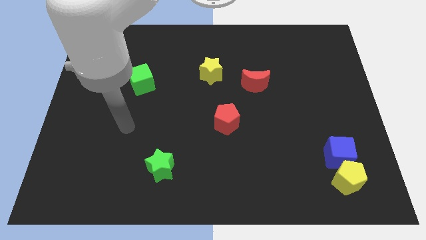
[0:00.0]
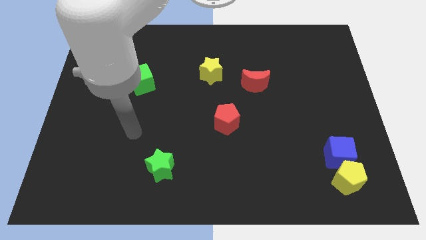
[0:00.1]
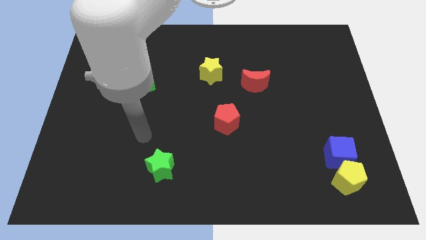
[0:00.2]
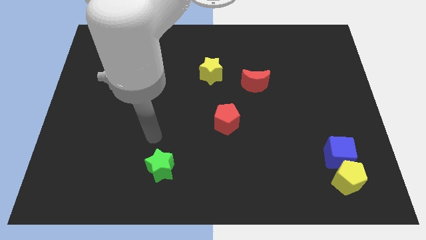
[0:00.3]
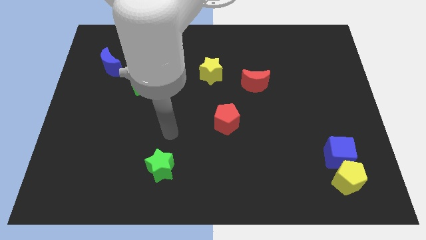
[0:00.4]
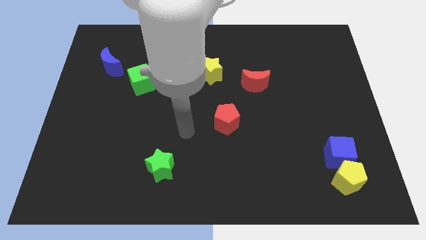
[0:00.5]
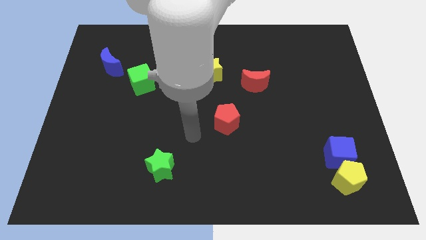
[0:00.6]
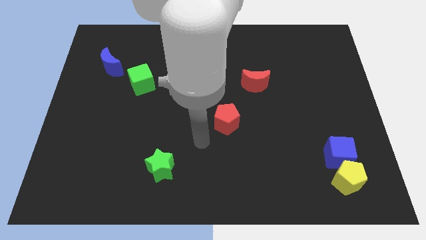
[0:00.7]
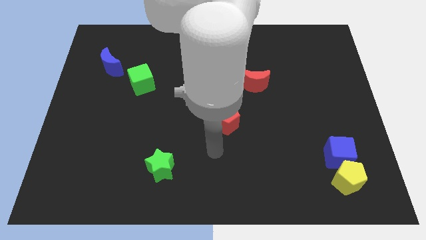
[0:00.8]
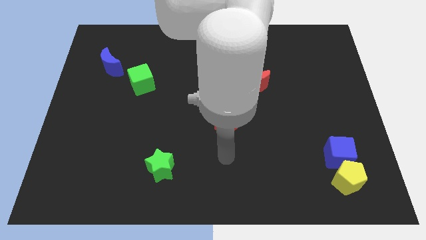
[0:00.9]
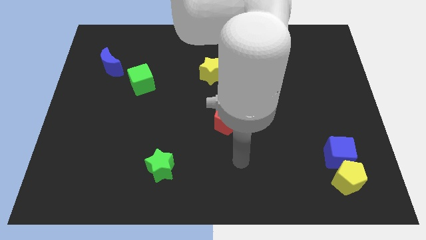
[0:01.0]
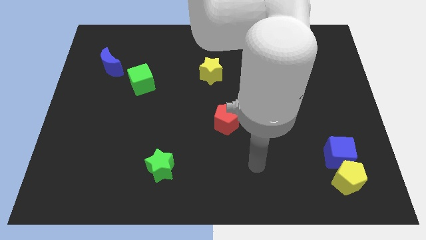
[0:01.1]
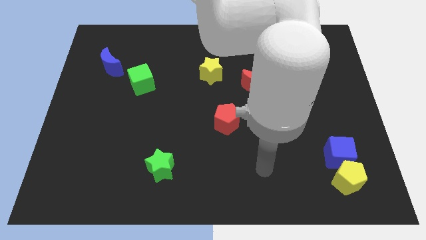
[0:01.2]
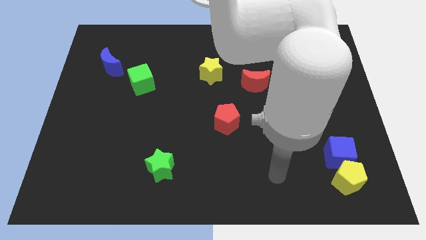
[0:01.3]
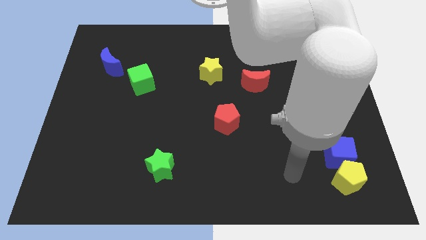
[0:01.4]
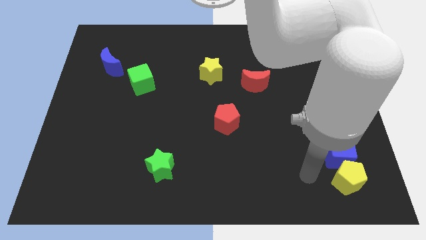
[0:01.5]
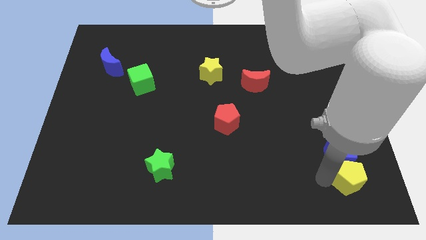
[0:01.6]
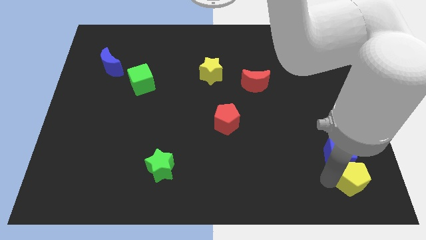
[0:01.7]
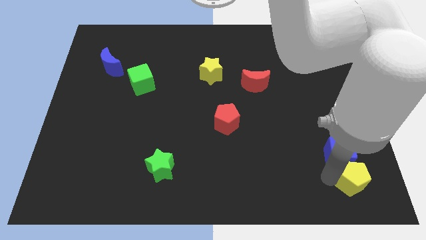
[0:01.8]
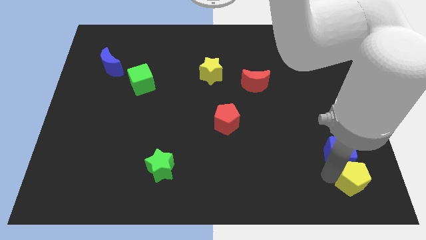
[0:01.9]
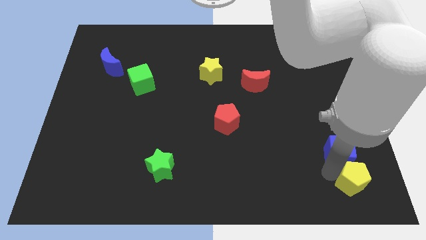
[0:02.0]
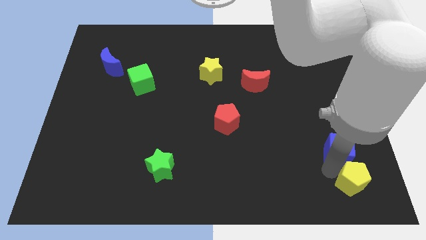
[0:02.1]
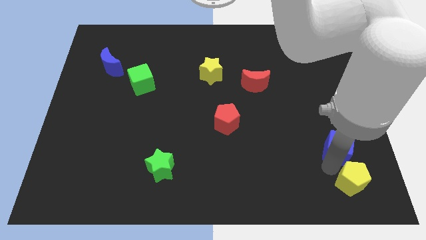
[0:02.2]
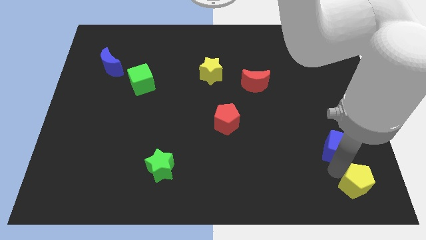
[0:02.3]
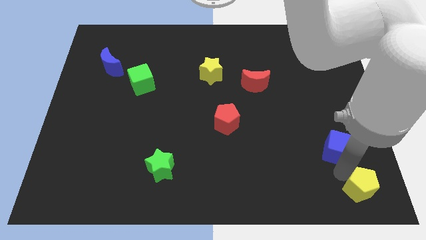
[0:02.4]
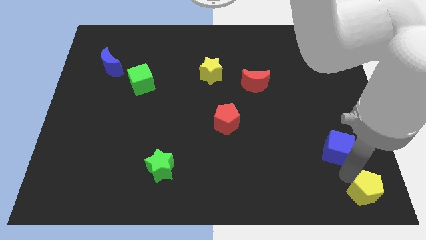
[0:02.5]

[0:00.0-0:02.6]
pull the blue cube apart from the yellow pentagon

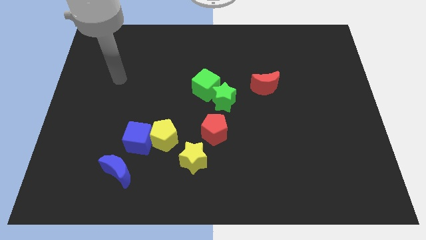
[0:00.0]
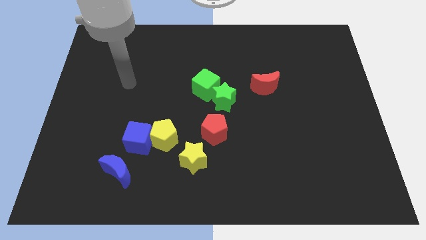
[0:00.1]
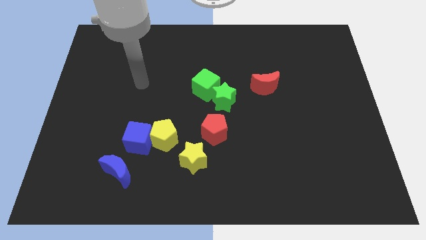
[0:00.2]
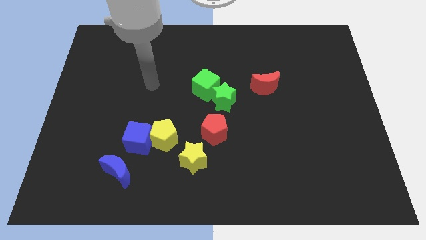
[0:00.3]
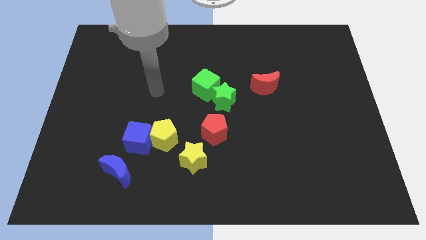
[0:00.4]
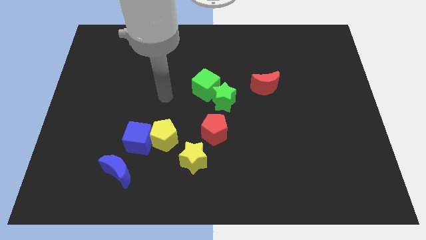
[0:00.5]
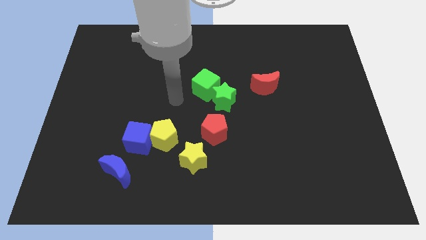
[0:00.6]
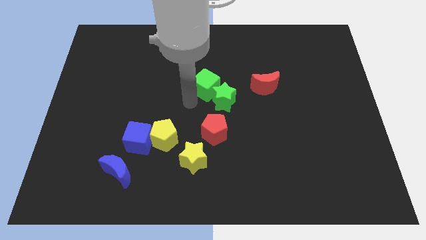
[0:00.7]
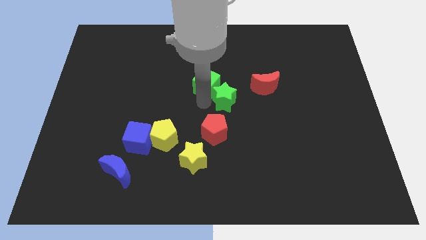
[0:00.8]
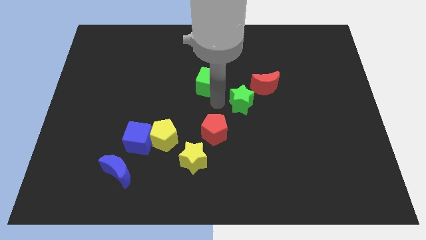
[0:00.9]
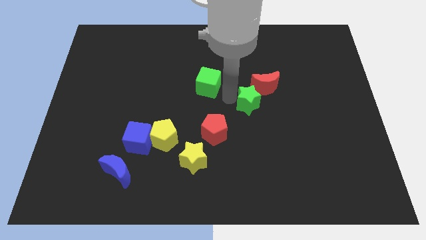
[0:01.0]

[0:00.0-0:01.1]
pull the green cube apart from the green star

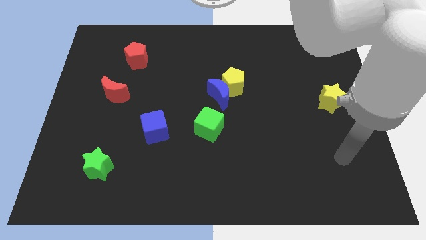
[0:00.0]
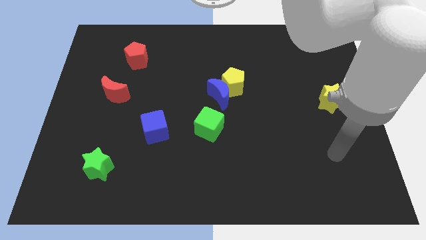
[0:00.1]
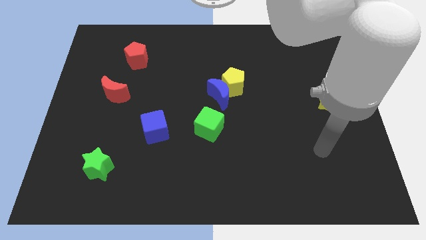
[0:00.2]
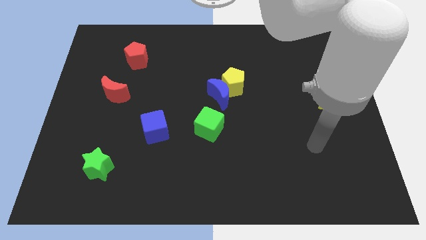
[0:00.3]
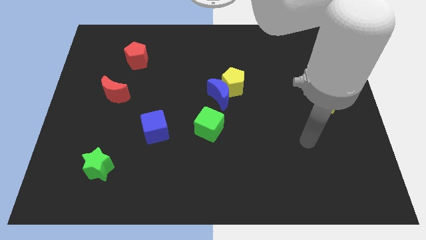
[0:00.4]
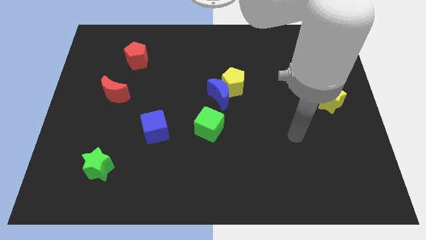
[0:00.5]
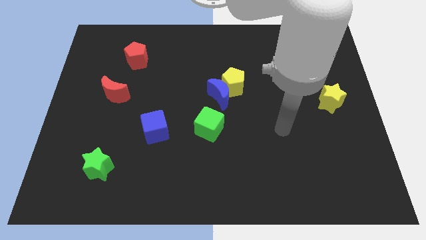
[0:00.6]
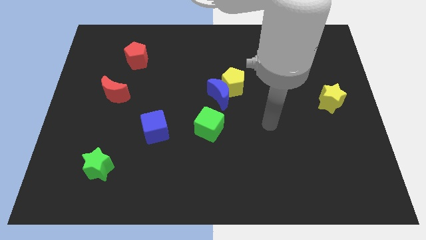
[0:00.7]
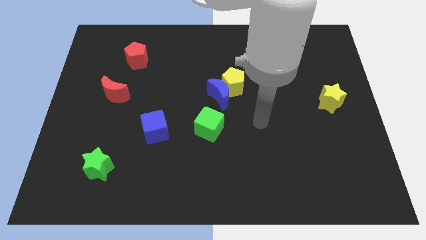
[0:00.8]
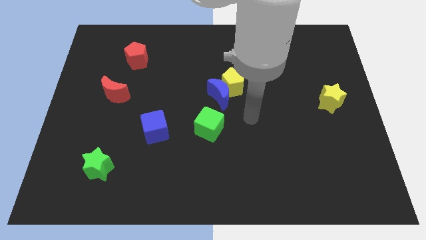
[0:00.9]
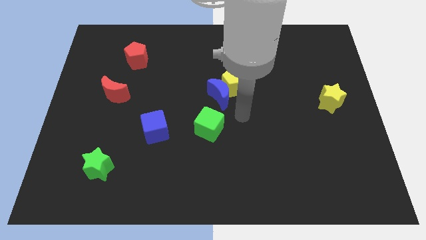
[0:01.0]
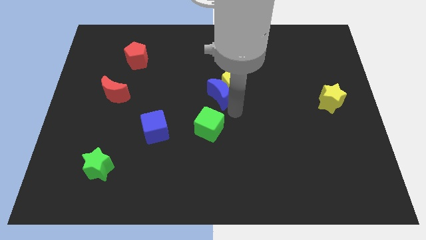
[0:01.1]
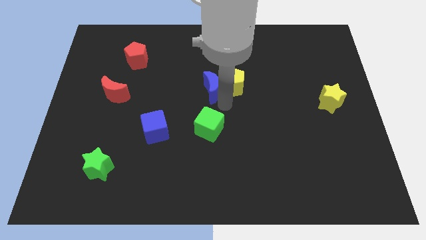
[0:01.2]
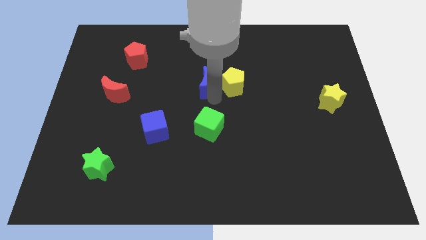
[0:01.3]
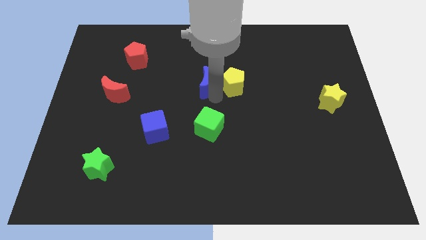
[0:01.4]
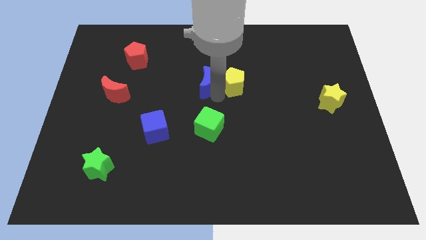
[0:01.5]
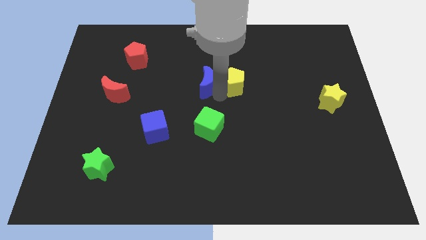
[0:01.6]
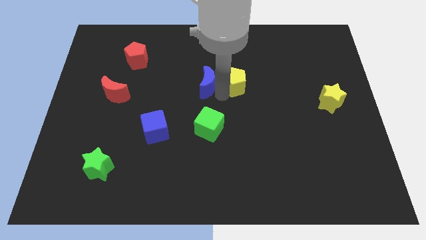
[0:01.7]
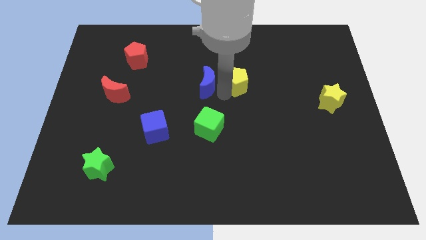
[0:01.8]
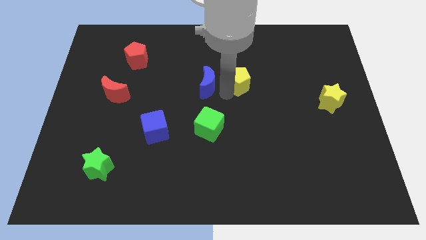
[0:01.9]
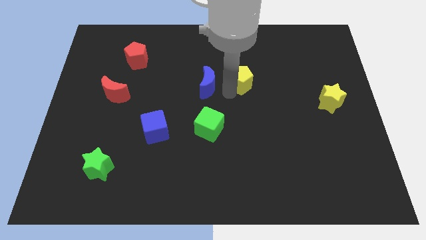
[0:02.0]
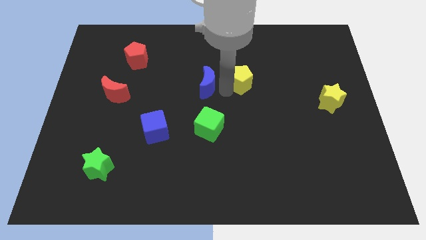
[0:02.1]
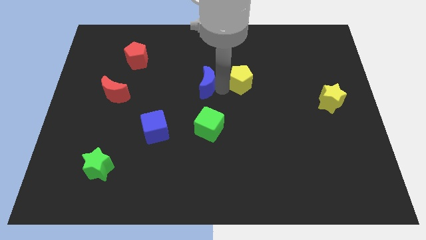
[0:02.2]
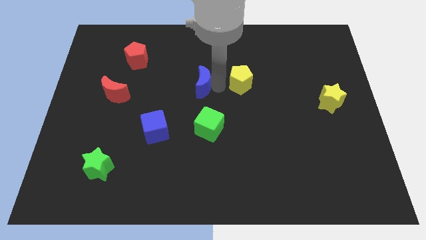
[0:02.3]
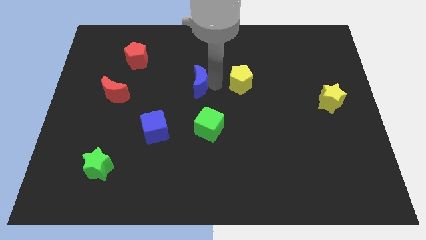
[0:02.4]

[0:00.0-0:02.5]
separate the yellow pentagon from the blue moon

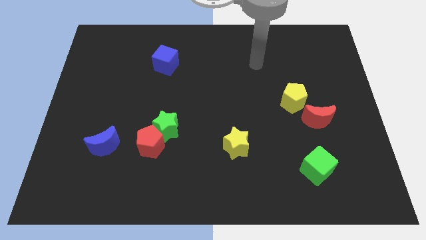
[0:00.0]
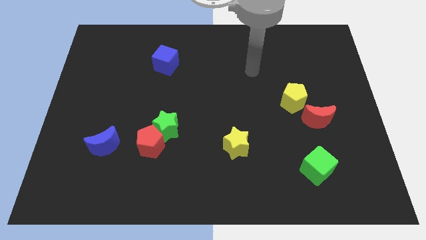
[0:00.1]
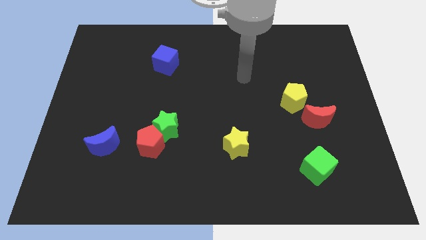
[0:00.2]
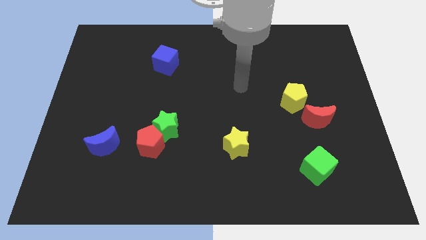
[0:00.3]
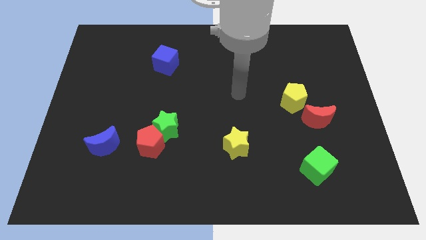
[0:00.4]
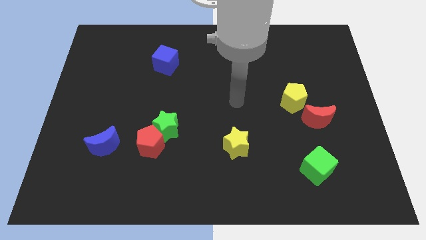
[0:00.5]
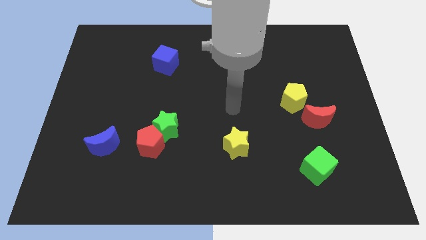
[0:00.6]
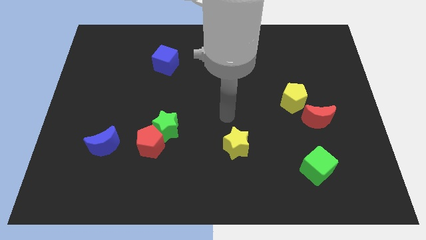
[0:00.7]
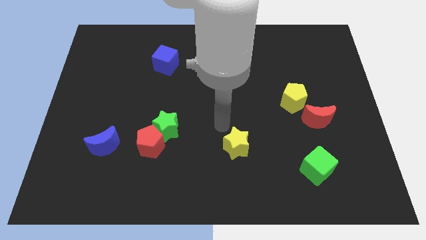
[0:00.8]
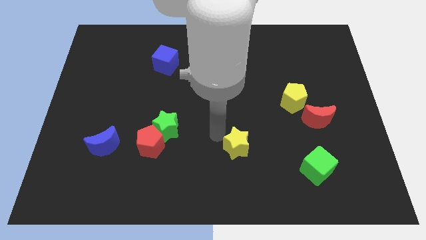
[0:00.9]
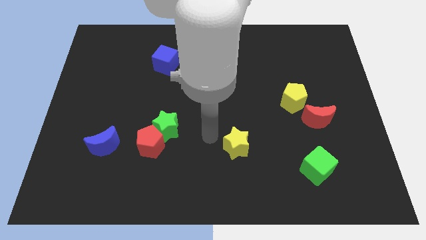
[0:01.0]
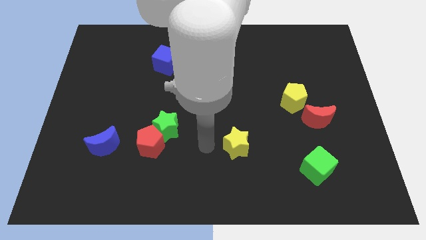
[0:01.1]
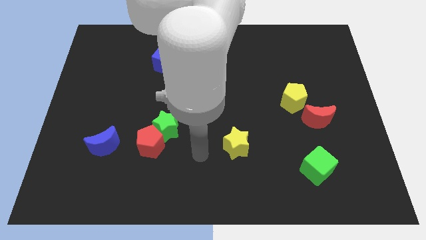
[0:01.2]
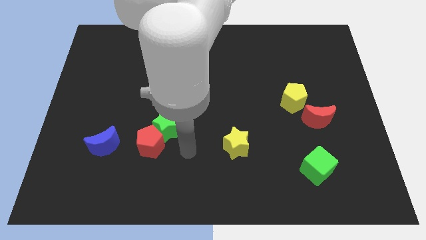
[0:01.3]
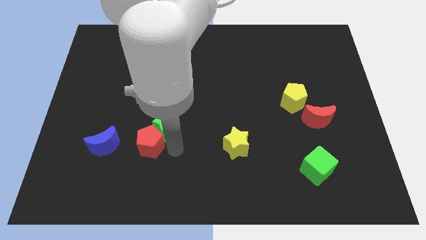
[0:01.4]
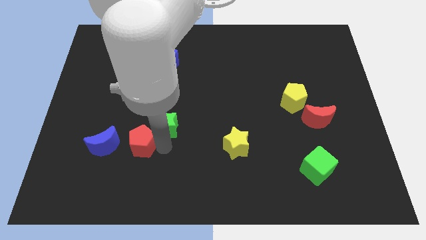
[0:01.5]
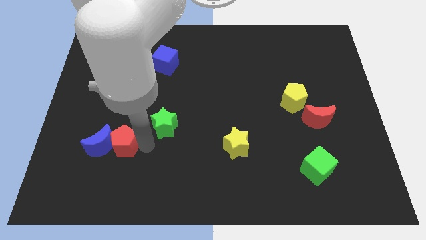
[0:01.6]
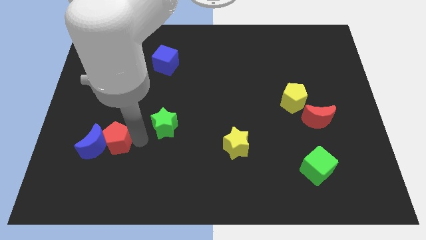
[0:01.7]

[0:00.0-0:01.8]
pull the green star apart from the red pentagon

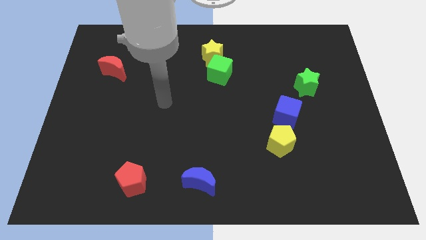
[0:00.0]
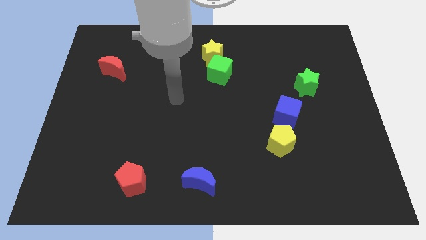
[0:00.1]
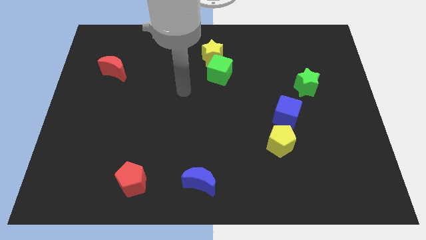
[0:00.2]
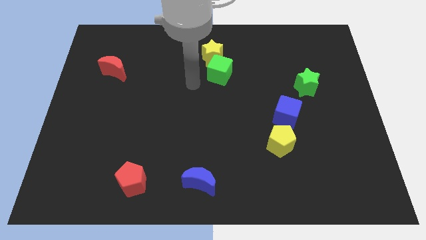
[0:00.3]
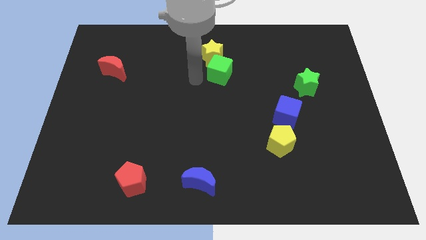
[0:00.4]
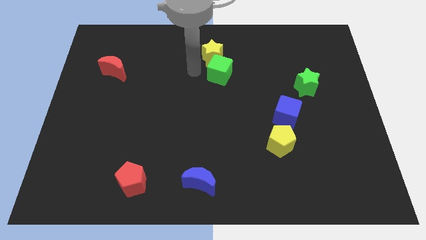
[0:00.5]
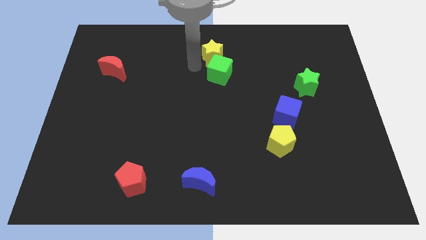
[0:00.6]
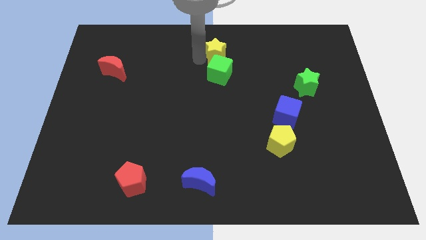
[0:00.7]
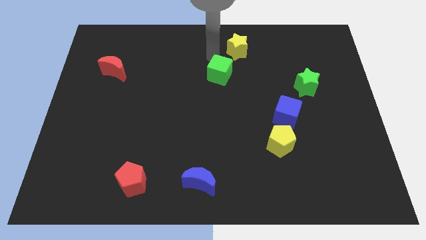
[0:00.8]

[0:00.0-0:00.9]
separate the green cube from the yellow star

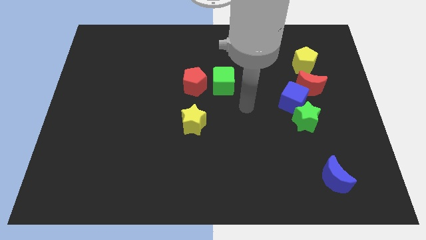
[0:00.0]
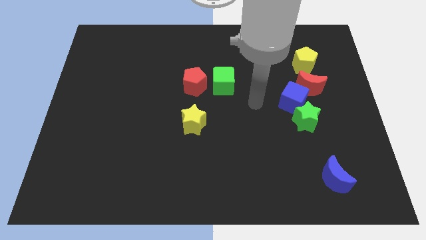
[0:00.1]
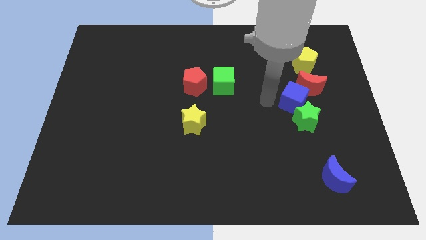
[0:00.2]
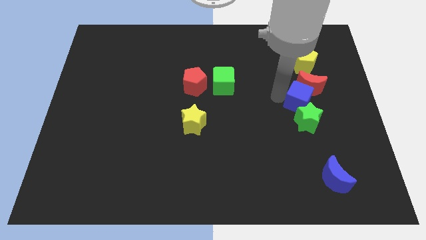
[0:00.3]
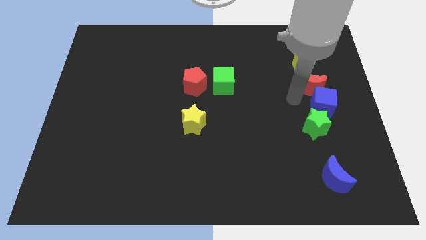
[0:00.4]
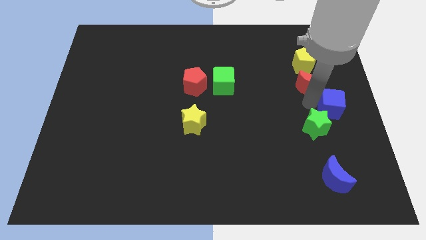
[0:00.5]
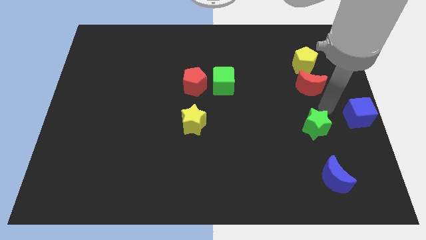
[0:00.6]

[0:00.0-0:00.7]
move the green star away from the blue cube
